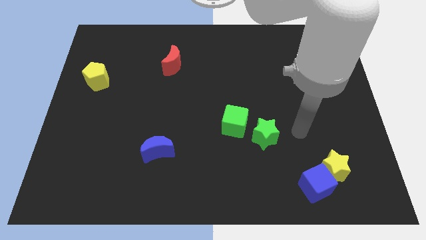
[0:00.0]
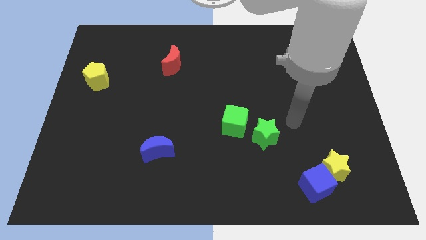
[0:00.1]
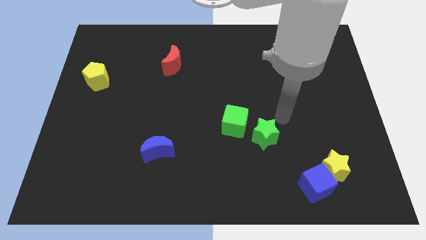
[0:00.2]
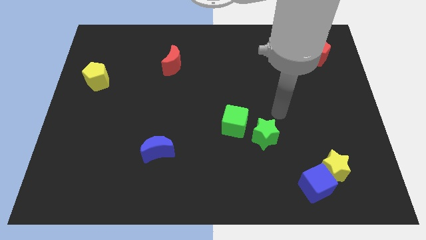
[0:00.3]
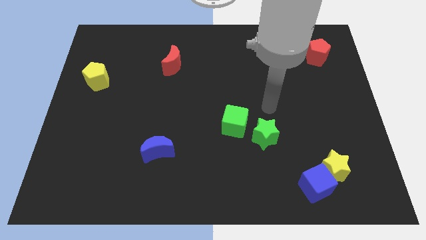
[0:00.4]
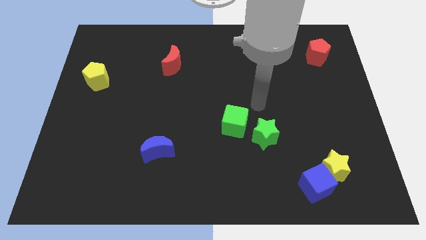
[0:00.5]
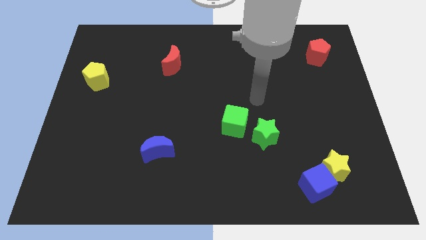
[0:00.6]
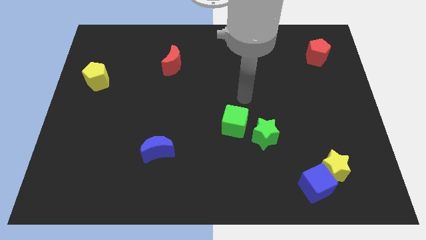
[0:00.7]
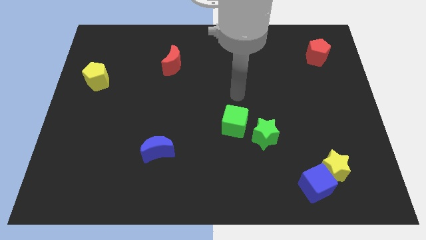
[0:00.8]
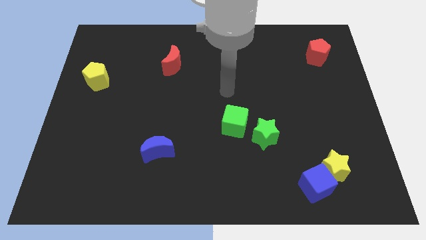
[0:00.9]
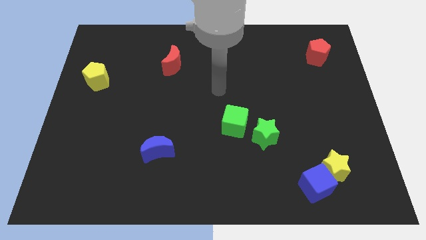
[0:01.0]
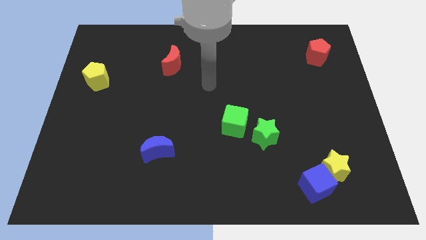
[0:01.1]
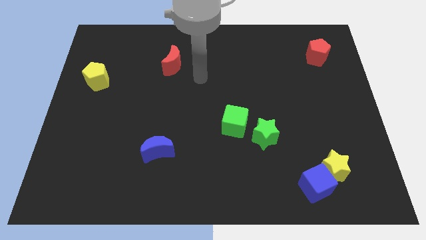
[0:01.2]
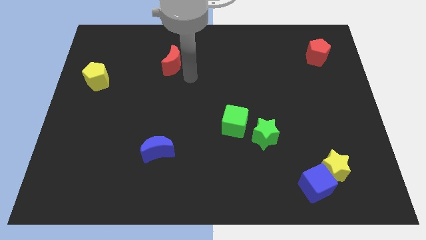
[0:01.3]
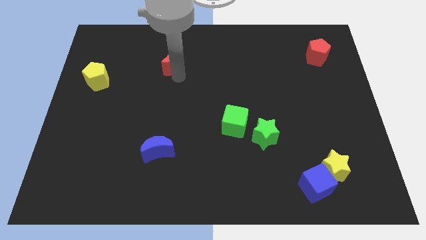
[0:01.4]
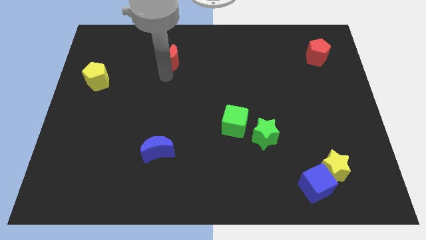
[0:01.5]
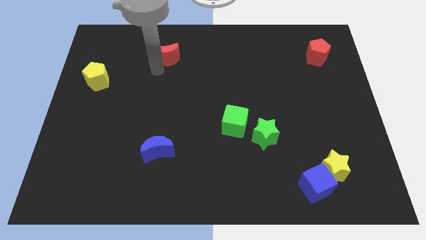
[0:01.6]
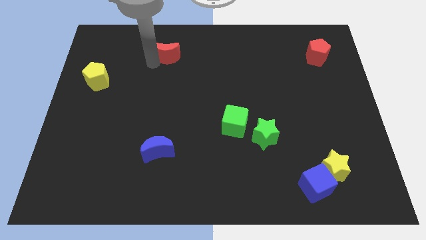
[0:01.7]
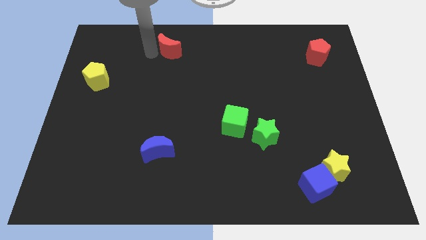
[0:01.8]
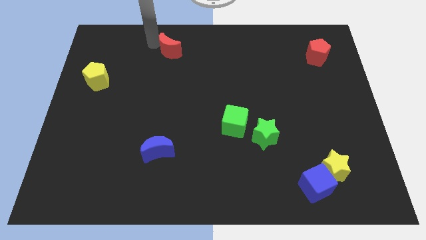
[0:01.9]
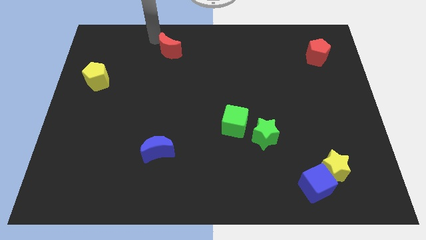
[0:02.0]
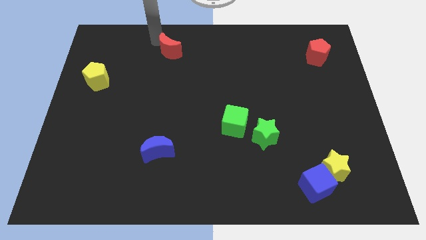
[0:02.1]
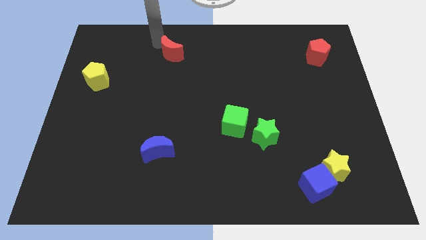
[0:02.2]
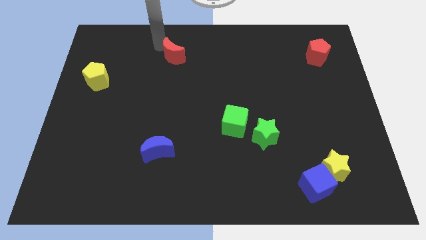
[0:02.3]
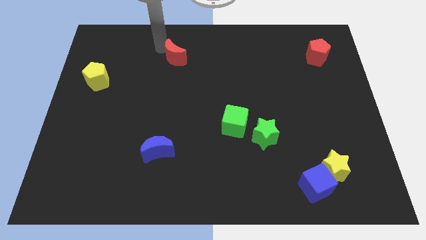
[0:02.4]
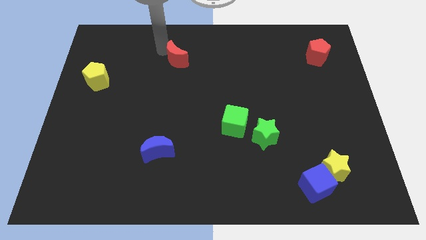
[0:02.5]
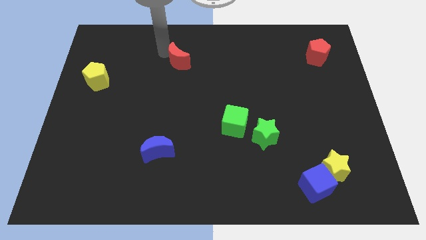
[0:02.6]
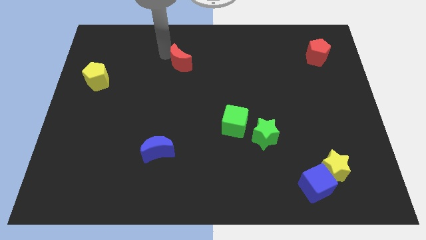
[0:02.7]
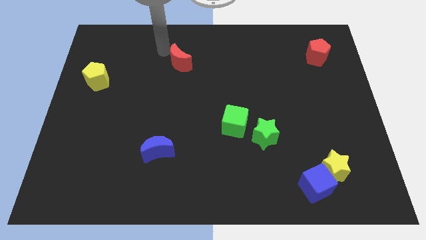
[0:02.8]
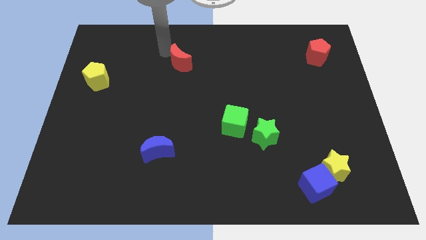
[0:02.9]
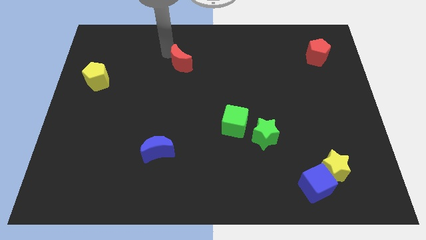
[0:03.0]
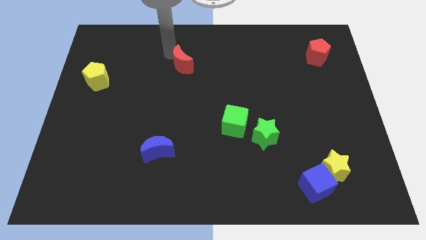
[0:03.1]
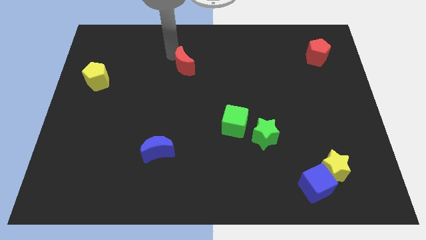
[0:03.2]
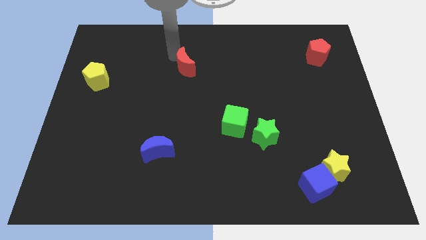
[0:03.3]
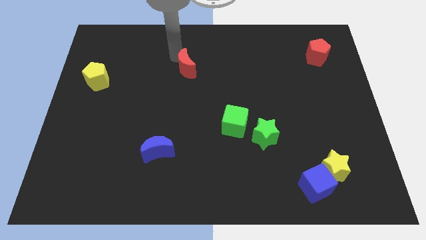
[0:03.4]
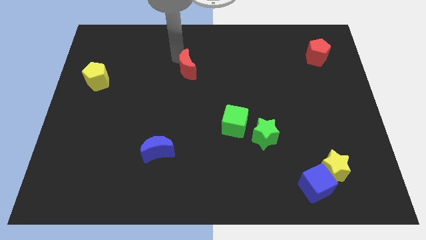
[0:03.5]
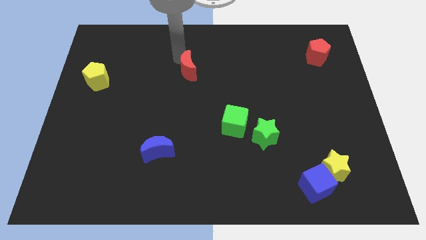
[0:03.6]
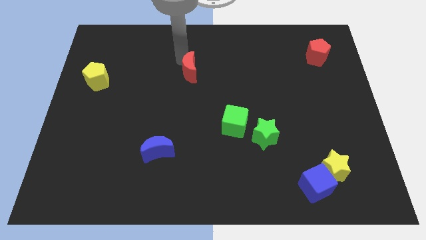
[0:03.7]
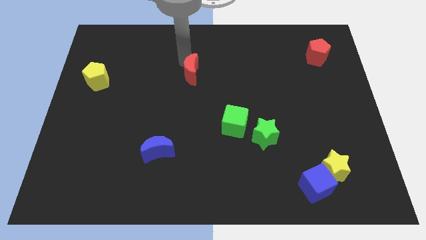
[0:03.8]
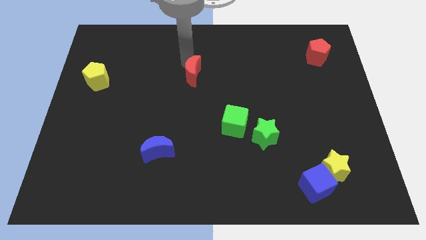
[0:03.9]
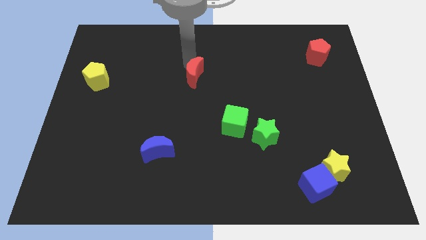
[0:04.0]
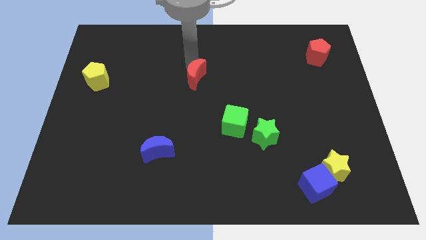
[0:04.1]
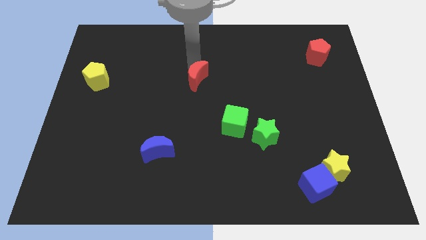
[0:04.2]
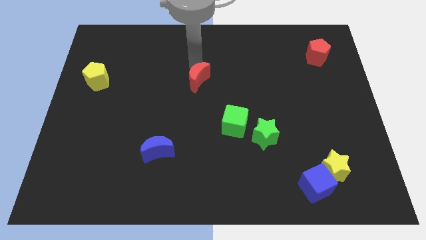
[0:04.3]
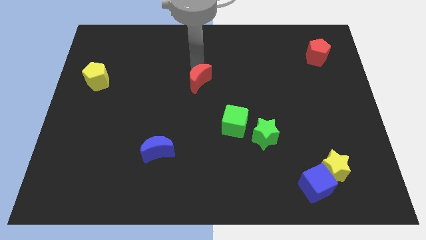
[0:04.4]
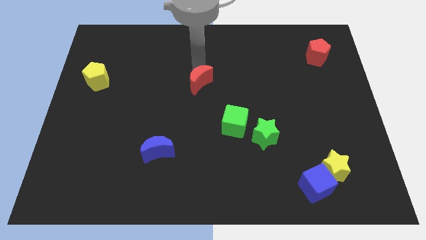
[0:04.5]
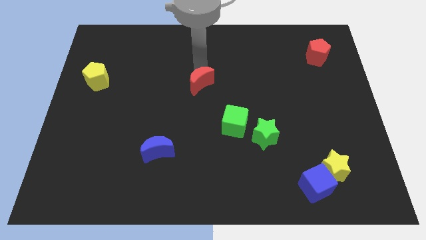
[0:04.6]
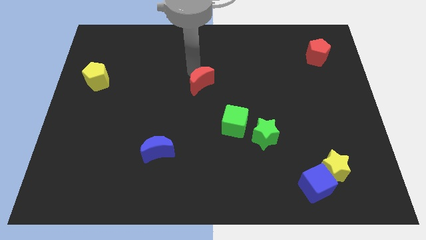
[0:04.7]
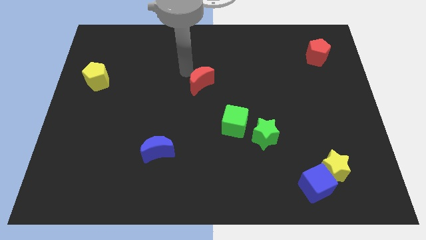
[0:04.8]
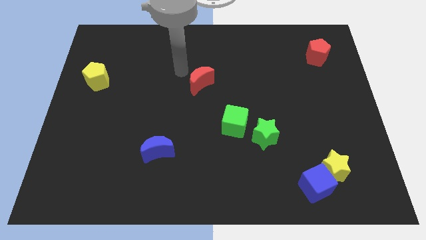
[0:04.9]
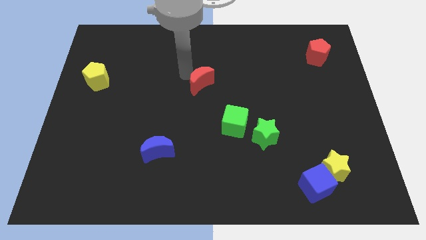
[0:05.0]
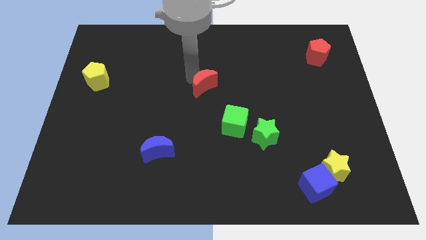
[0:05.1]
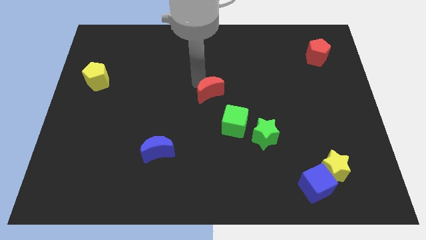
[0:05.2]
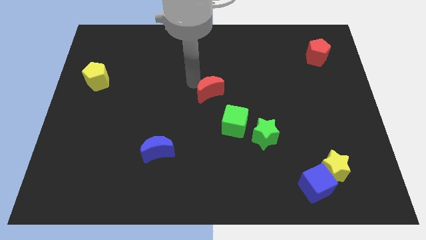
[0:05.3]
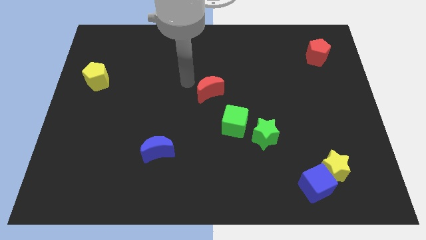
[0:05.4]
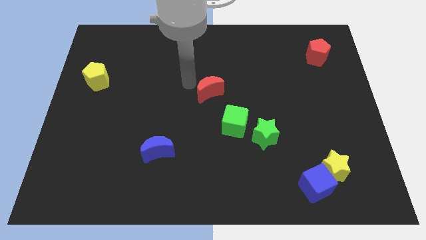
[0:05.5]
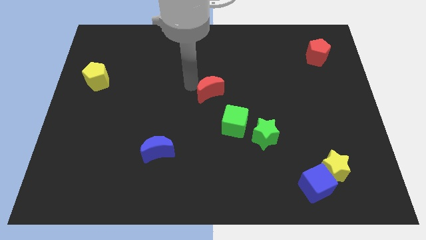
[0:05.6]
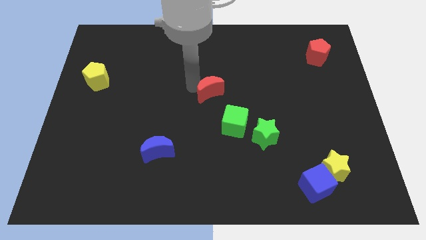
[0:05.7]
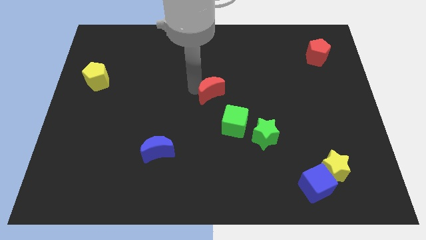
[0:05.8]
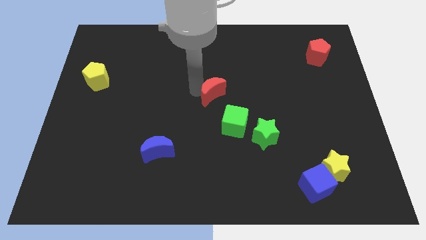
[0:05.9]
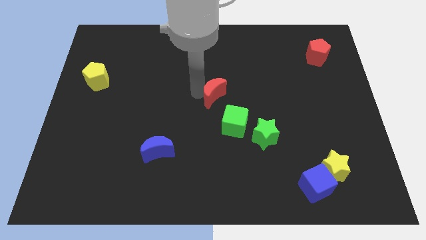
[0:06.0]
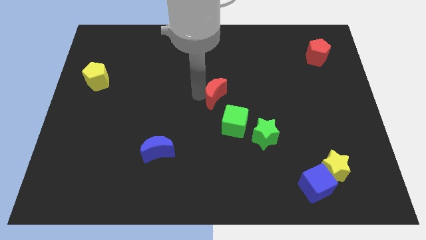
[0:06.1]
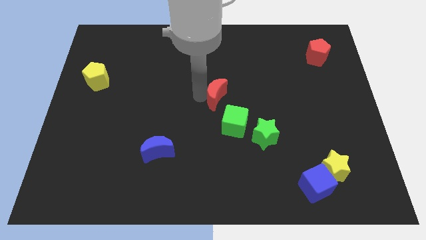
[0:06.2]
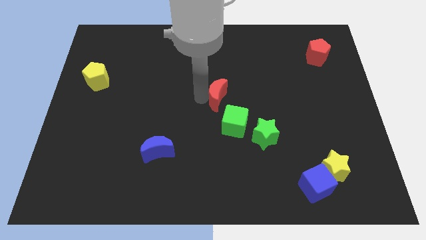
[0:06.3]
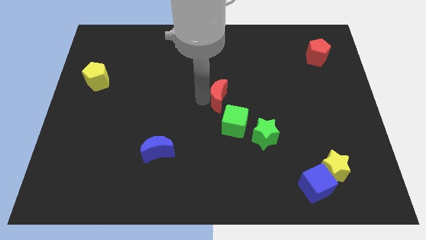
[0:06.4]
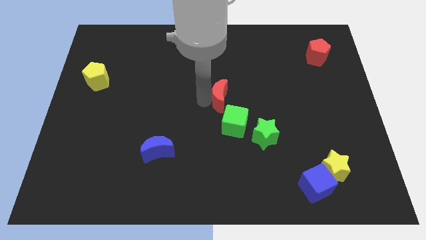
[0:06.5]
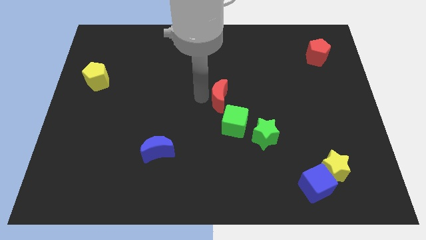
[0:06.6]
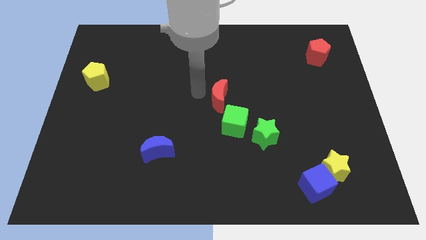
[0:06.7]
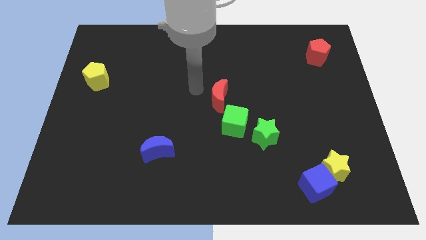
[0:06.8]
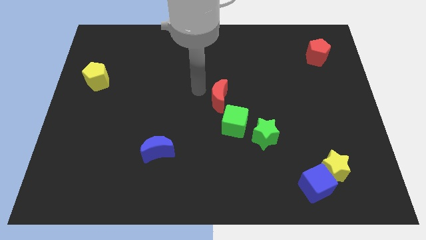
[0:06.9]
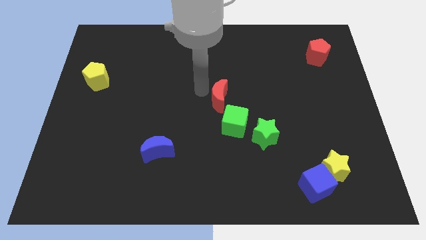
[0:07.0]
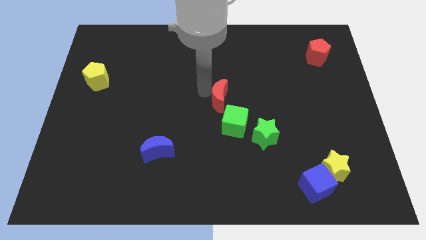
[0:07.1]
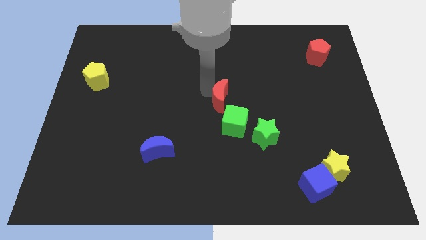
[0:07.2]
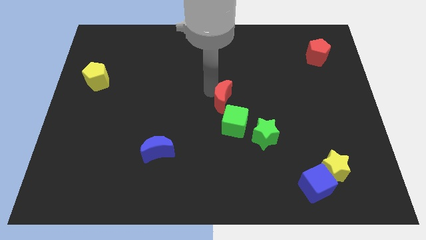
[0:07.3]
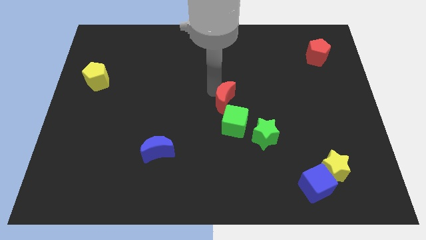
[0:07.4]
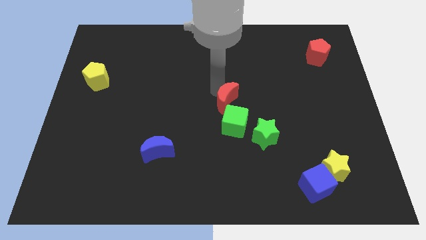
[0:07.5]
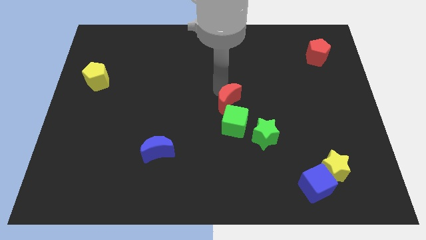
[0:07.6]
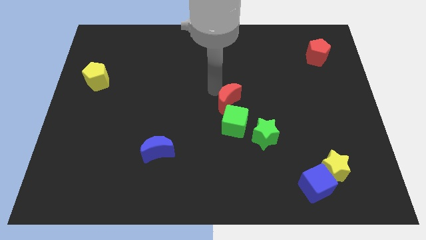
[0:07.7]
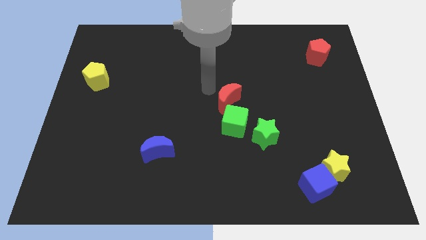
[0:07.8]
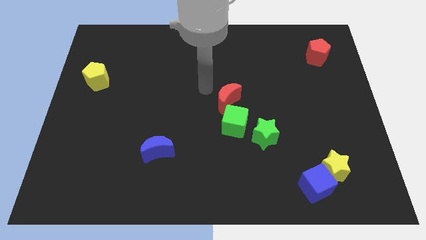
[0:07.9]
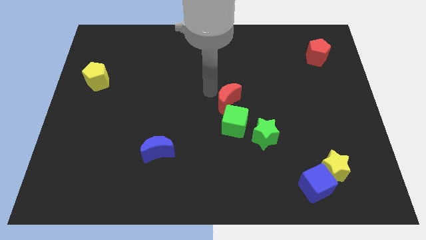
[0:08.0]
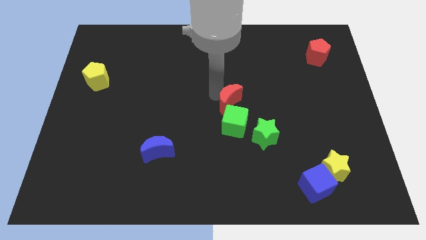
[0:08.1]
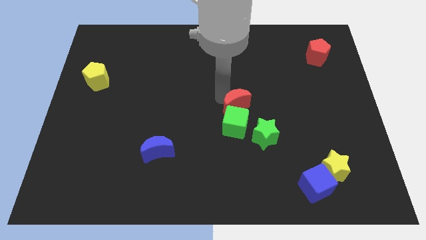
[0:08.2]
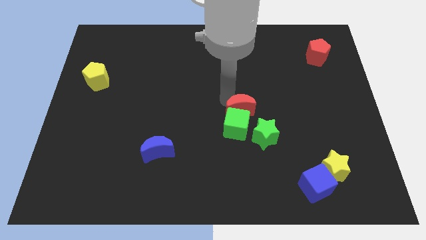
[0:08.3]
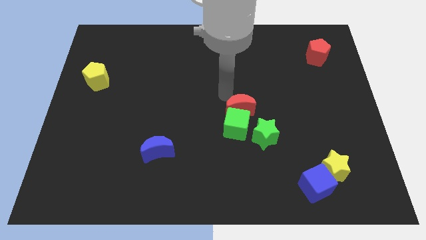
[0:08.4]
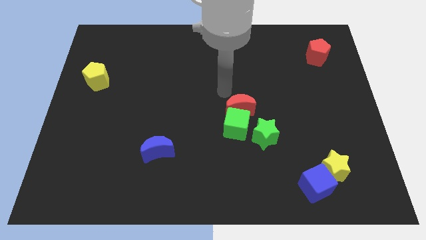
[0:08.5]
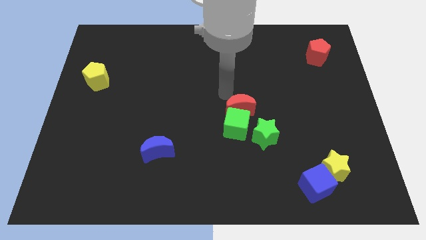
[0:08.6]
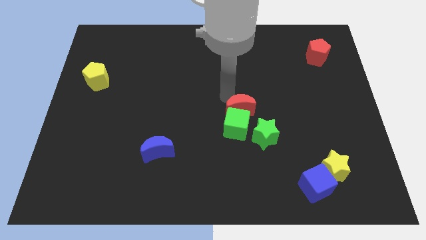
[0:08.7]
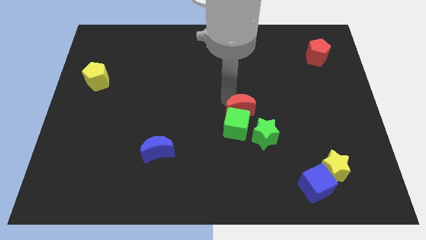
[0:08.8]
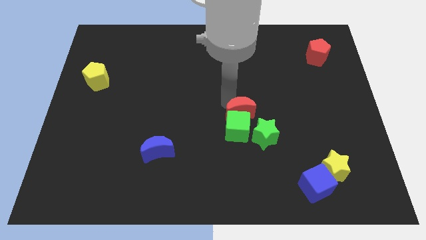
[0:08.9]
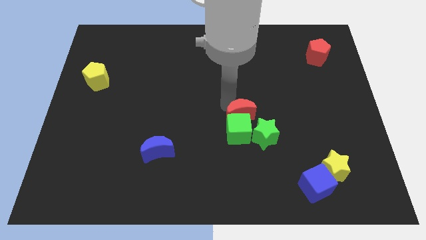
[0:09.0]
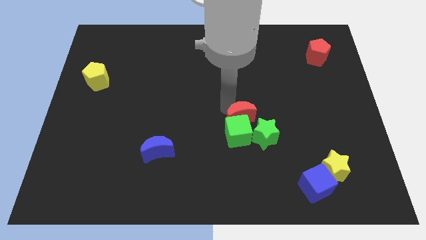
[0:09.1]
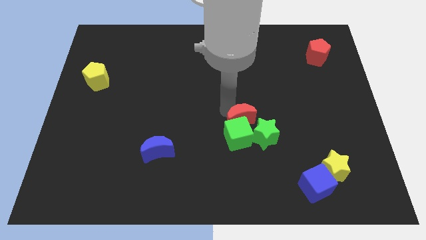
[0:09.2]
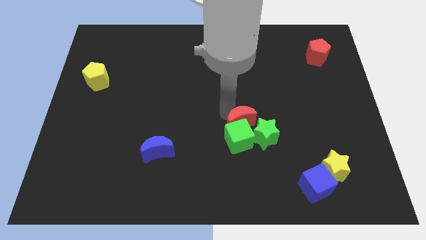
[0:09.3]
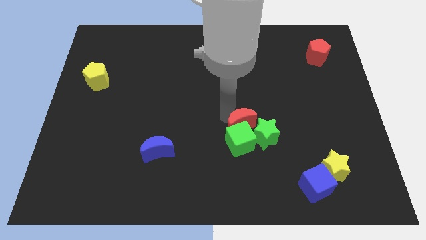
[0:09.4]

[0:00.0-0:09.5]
move the red moon towards the green star
